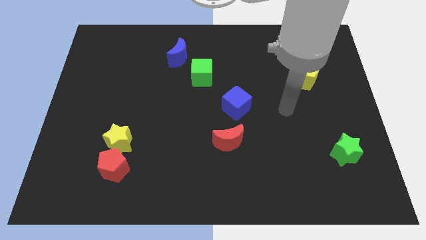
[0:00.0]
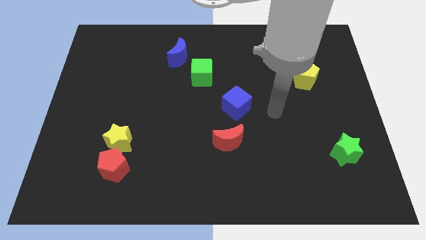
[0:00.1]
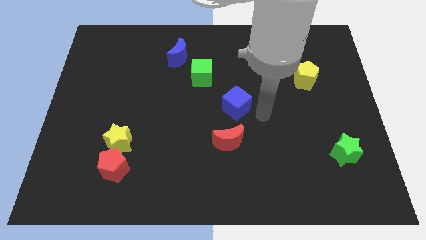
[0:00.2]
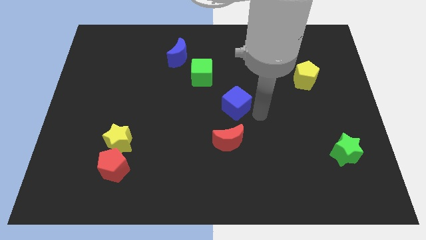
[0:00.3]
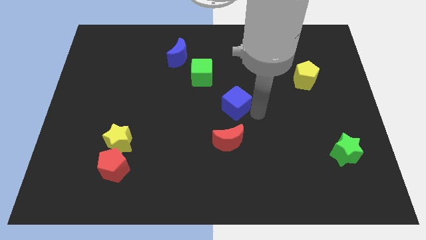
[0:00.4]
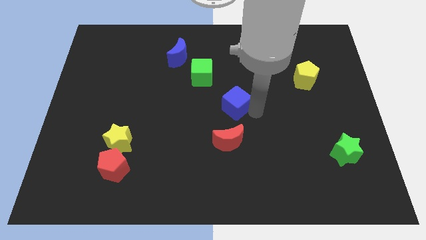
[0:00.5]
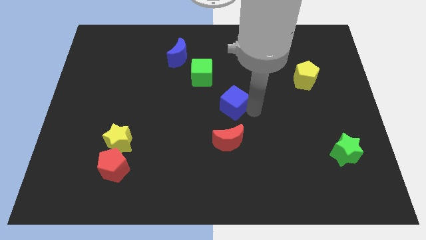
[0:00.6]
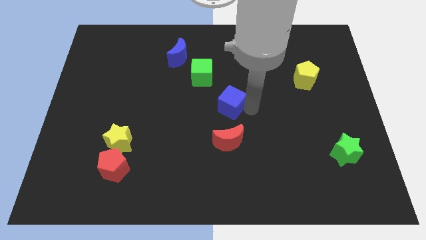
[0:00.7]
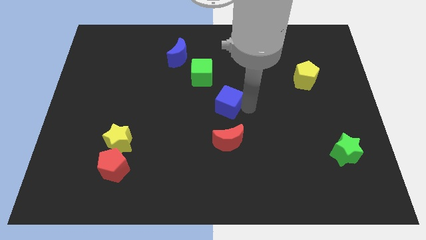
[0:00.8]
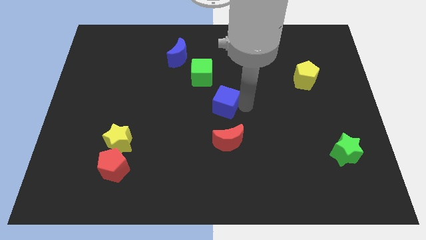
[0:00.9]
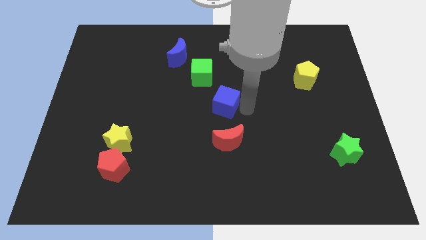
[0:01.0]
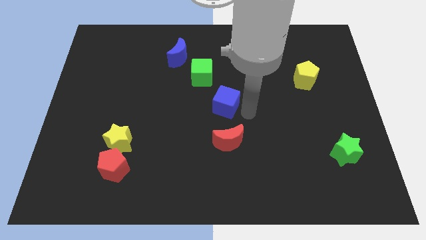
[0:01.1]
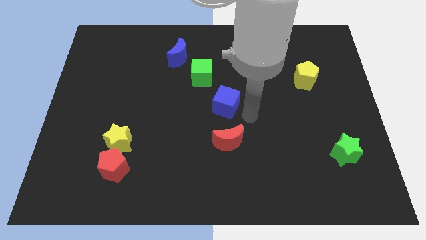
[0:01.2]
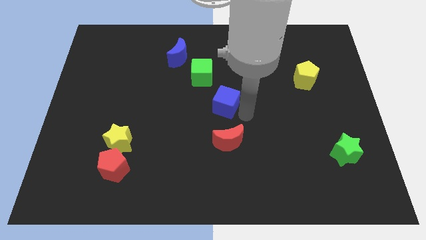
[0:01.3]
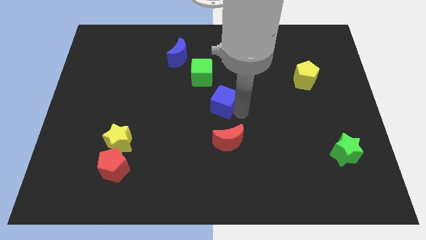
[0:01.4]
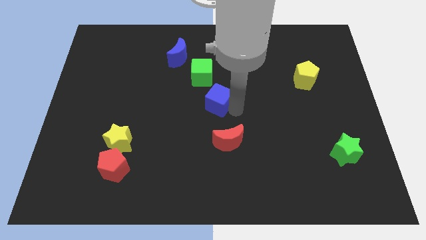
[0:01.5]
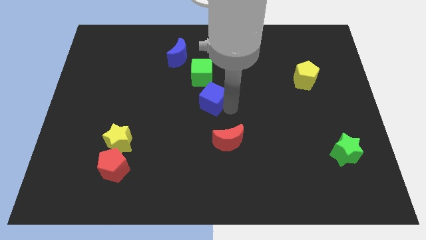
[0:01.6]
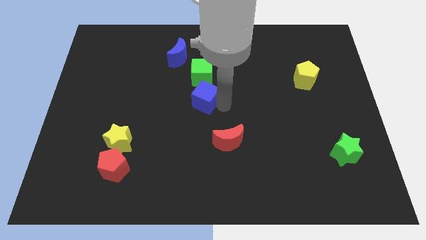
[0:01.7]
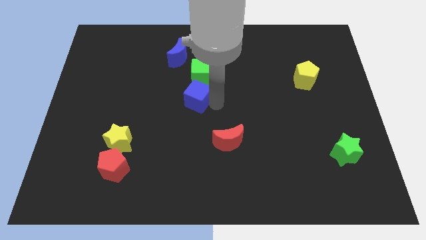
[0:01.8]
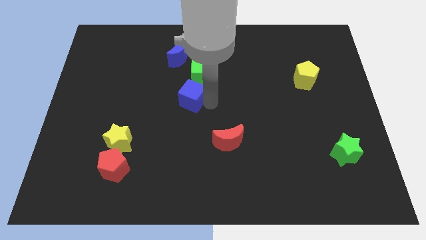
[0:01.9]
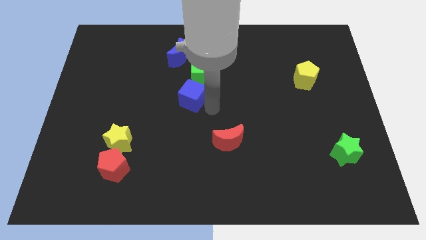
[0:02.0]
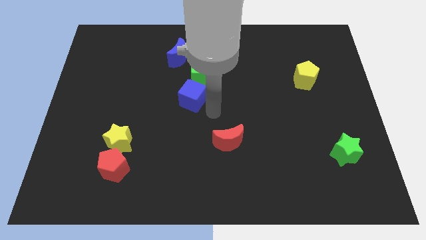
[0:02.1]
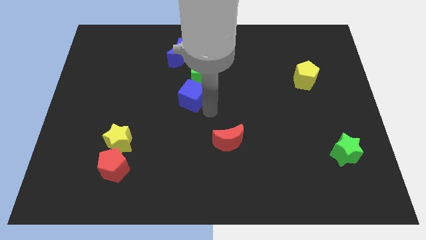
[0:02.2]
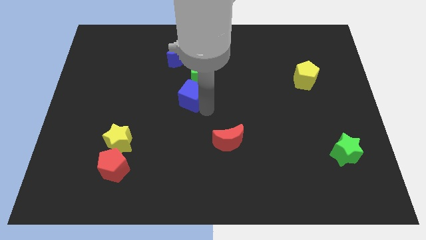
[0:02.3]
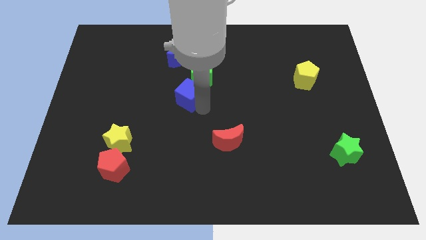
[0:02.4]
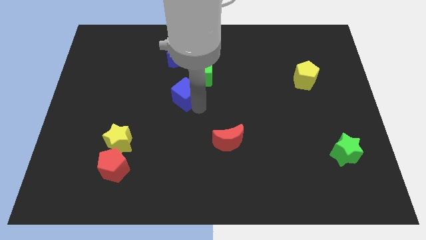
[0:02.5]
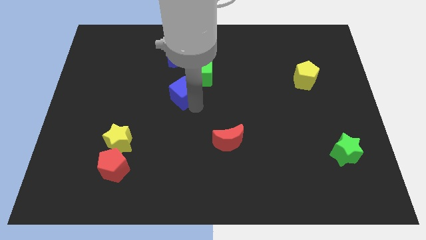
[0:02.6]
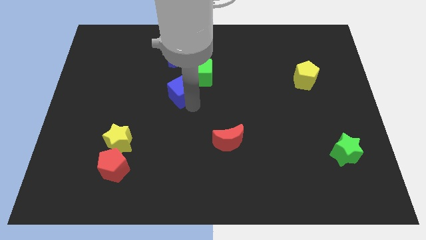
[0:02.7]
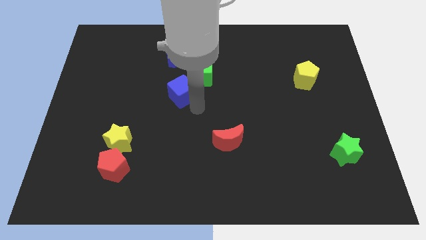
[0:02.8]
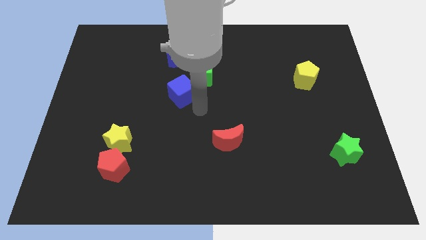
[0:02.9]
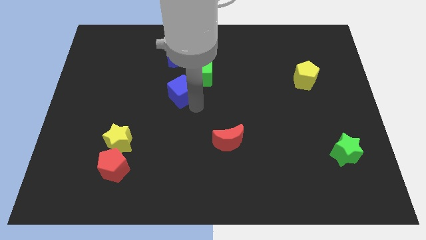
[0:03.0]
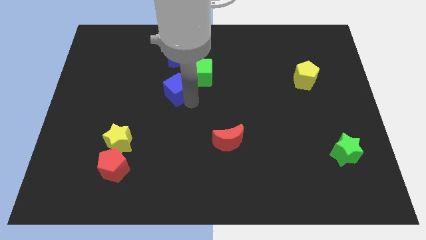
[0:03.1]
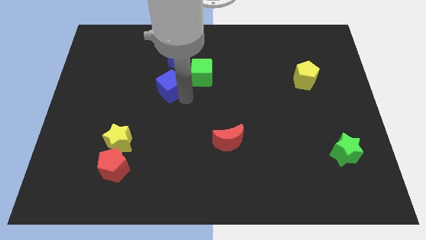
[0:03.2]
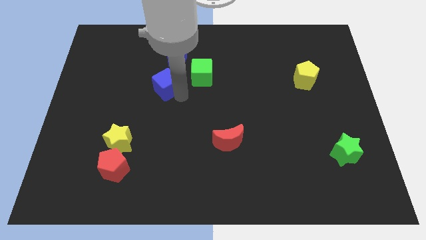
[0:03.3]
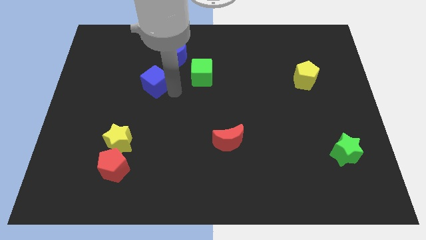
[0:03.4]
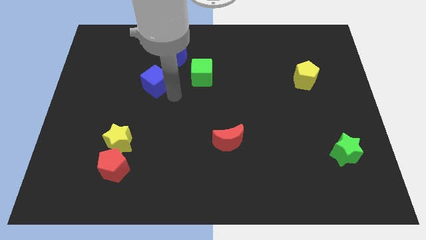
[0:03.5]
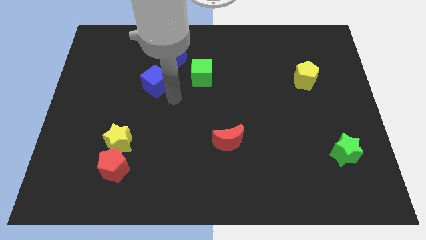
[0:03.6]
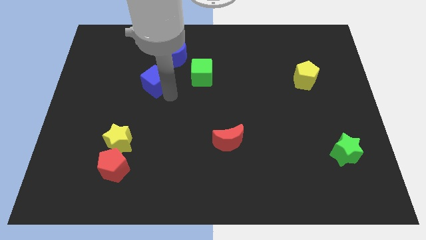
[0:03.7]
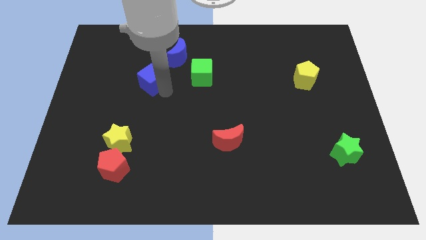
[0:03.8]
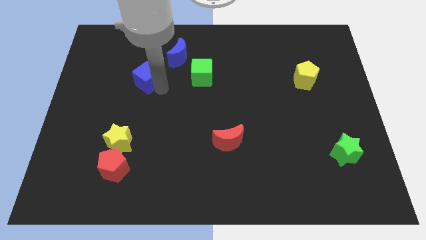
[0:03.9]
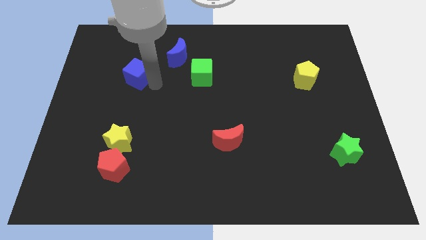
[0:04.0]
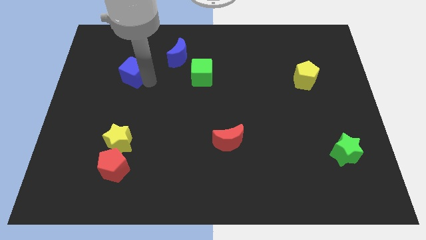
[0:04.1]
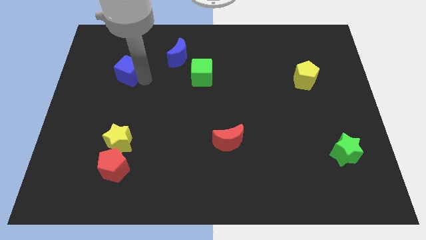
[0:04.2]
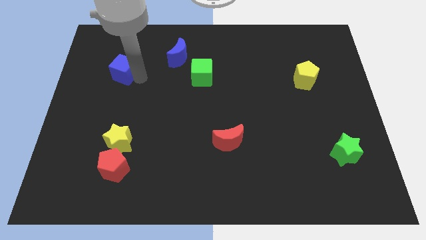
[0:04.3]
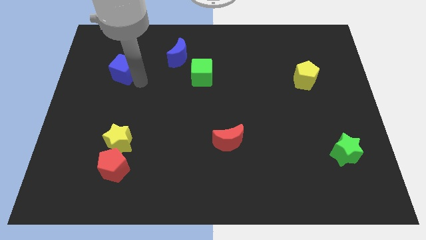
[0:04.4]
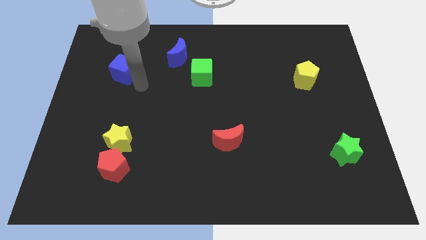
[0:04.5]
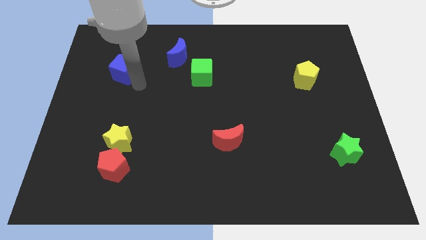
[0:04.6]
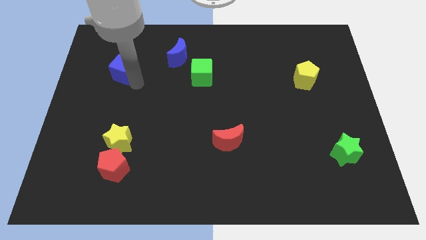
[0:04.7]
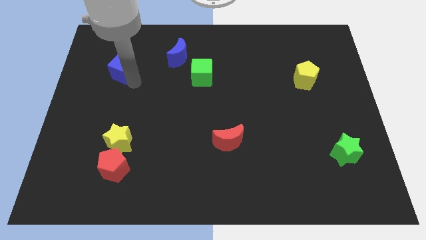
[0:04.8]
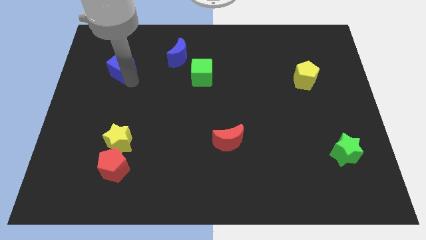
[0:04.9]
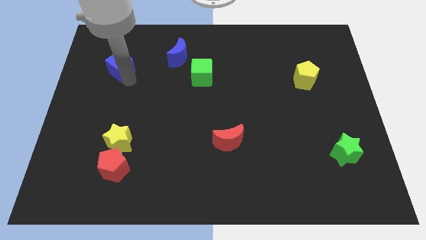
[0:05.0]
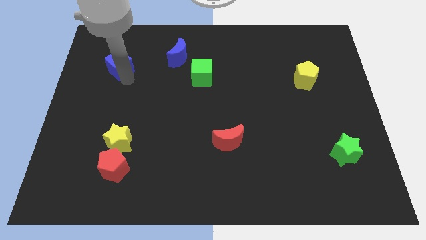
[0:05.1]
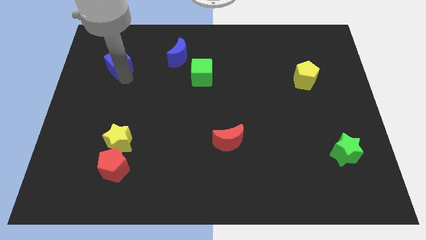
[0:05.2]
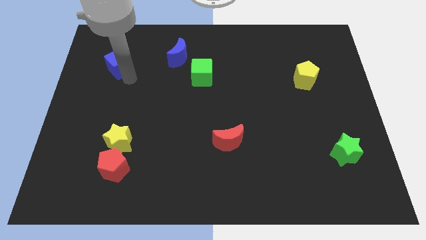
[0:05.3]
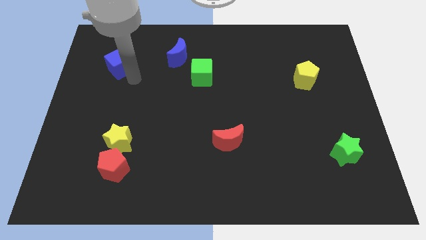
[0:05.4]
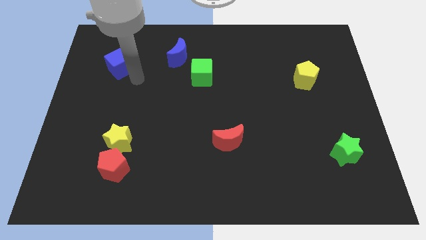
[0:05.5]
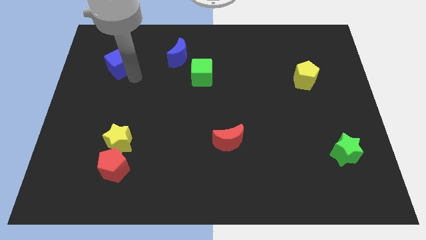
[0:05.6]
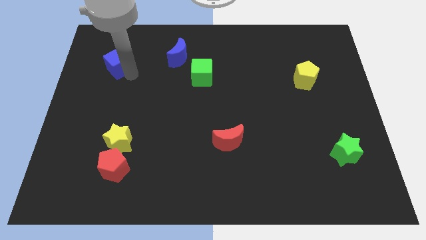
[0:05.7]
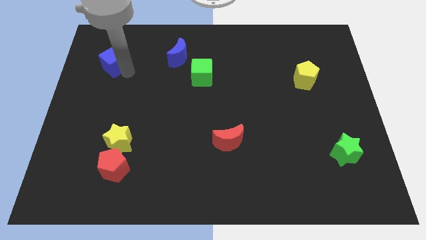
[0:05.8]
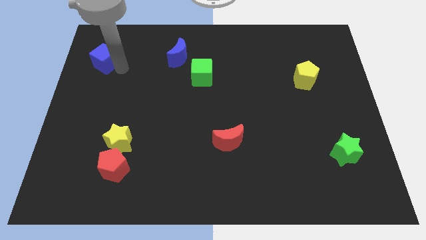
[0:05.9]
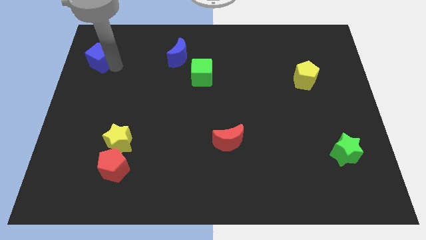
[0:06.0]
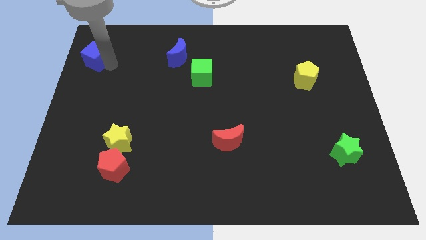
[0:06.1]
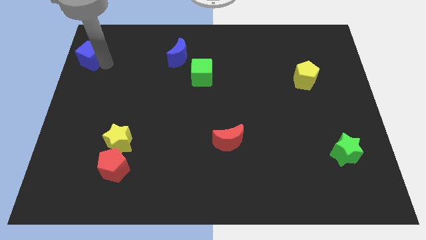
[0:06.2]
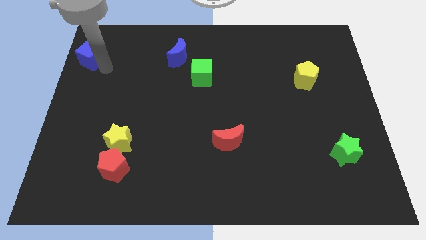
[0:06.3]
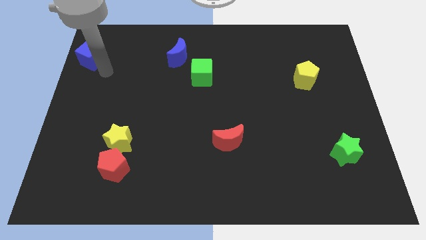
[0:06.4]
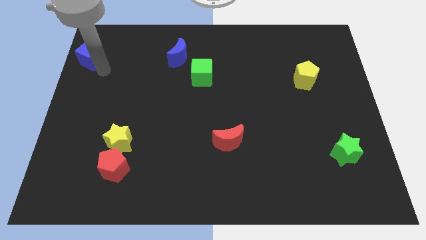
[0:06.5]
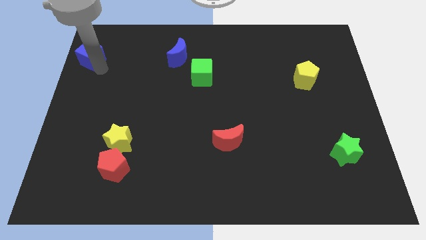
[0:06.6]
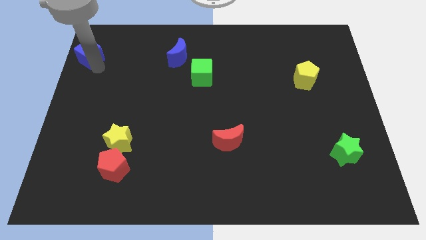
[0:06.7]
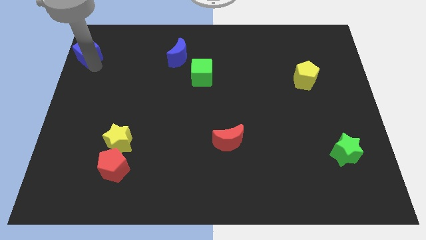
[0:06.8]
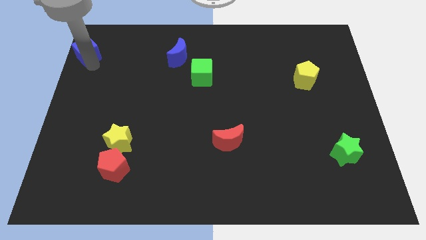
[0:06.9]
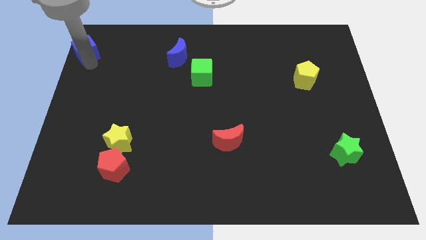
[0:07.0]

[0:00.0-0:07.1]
slide the blue cube to the upper left corner
